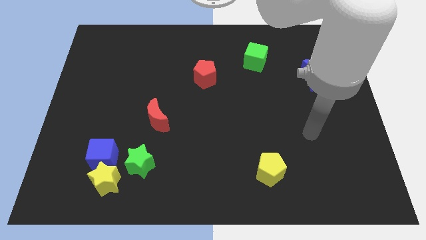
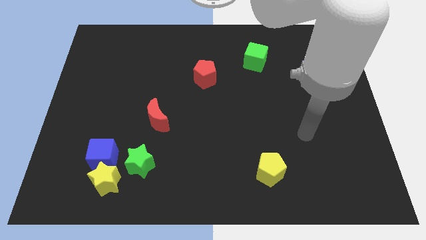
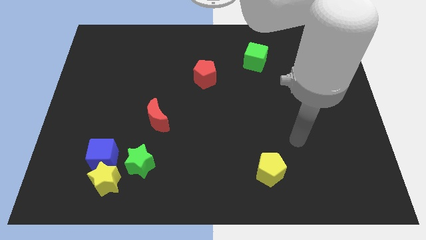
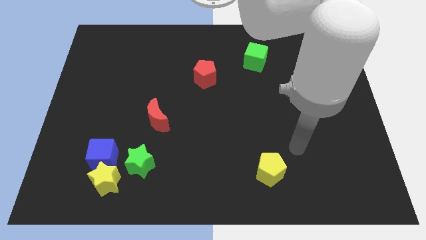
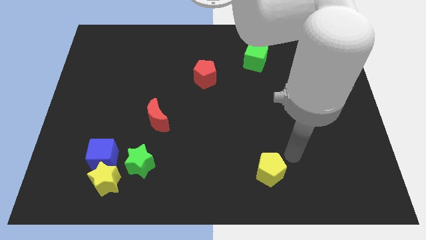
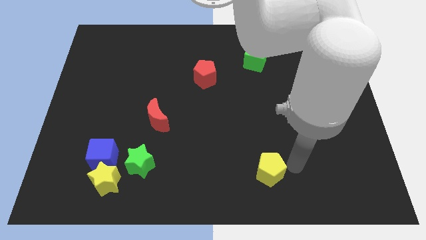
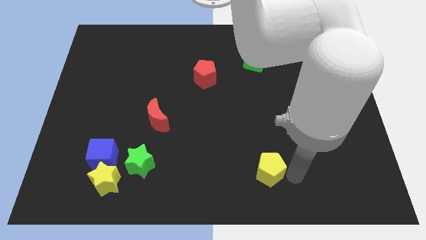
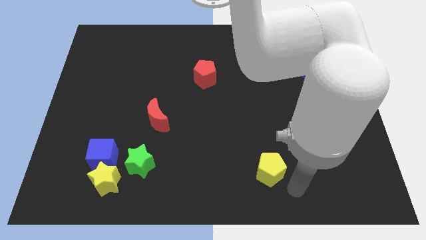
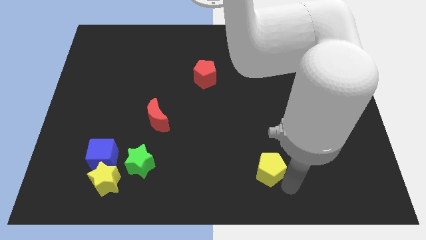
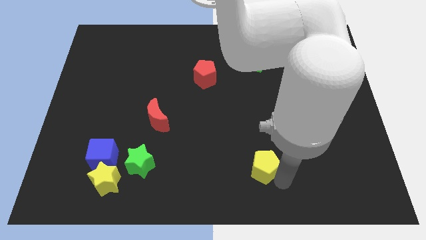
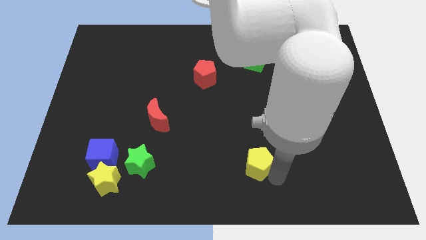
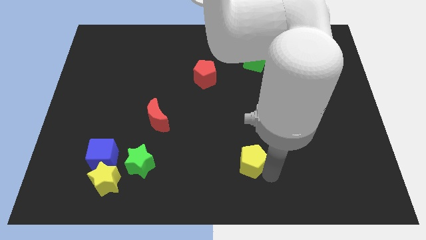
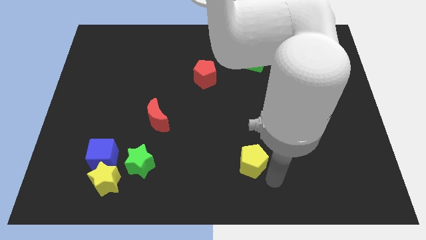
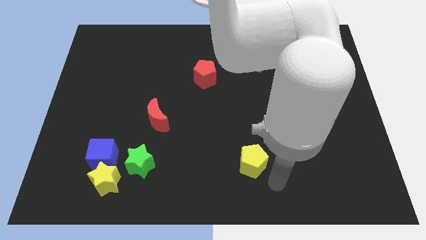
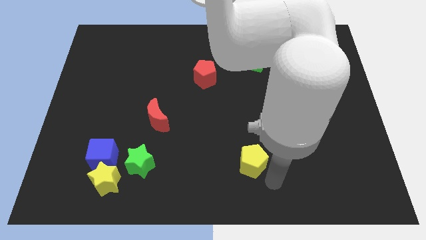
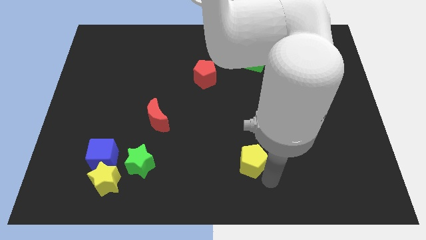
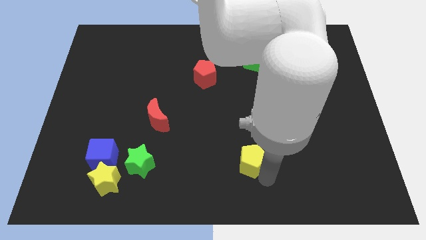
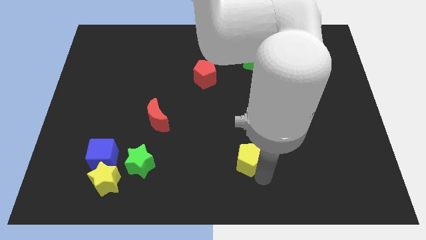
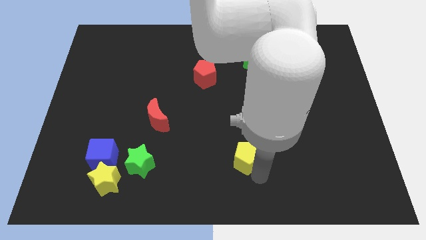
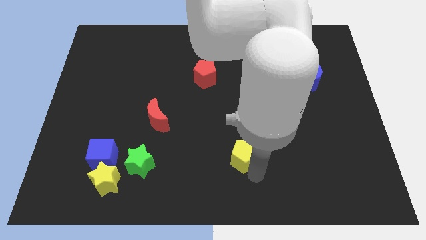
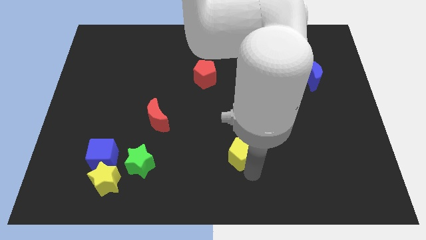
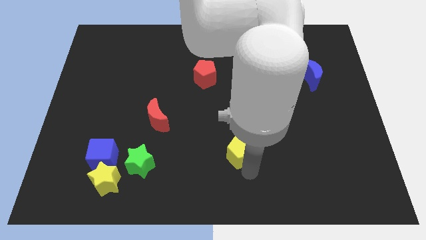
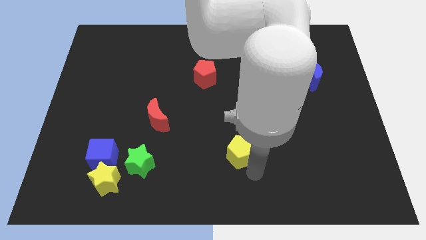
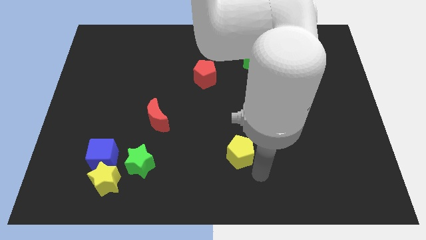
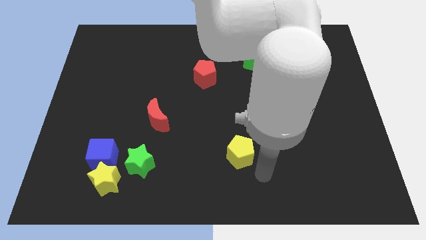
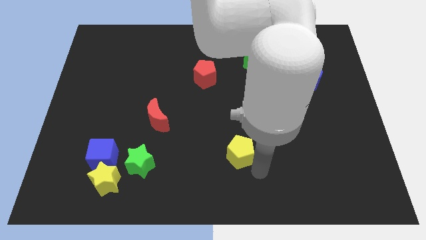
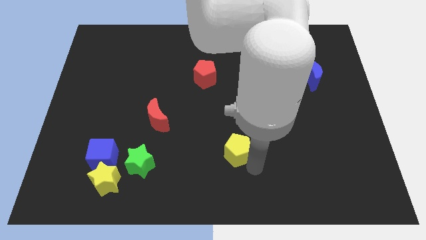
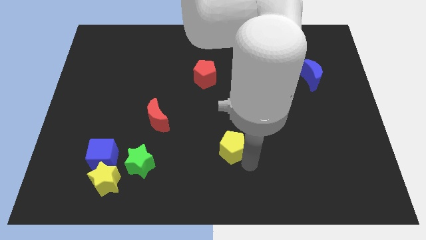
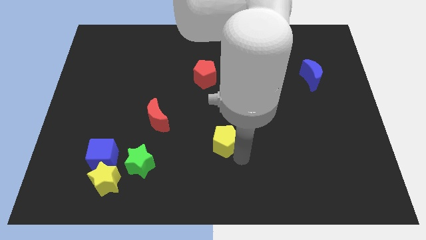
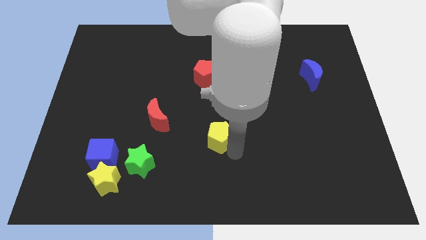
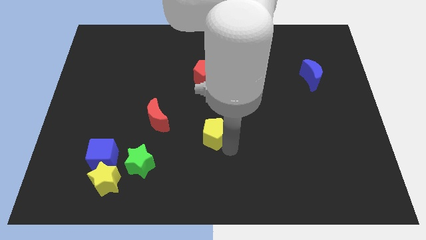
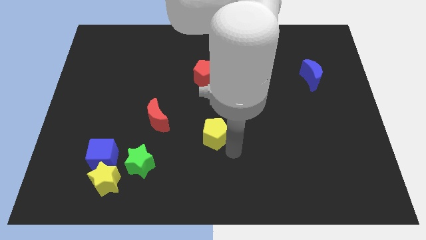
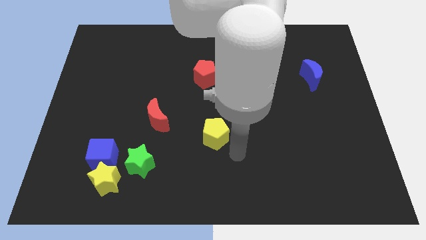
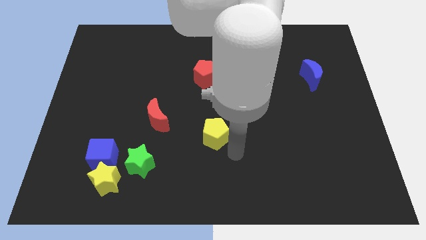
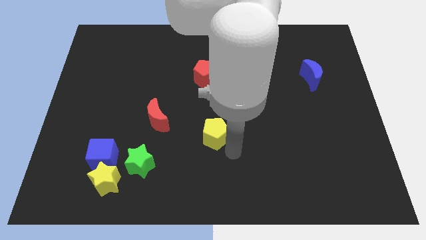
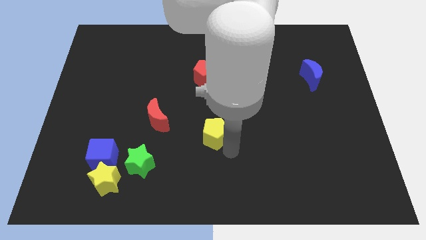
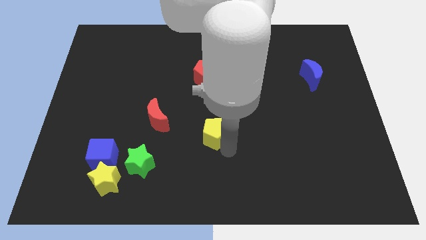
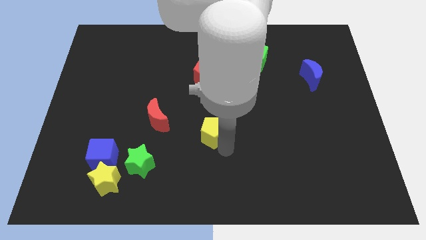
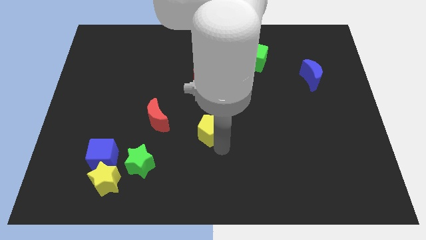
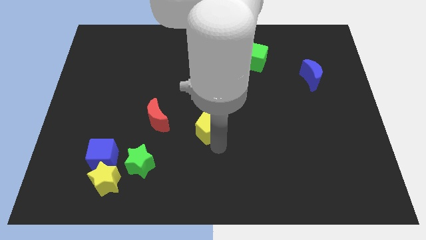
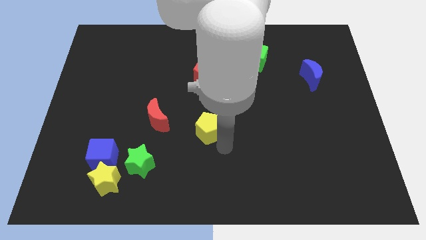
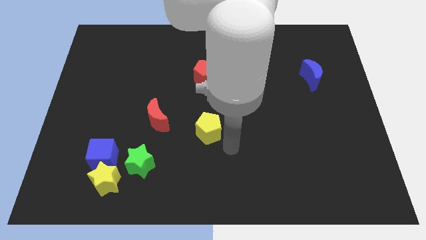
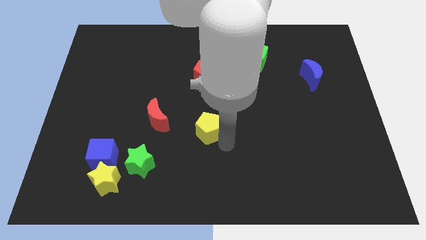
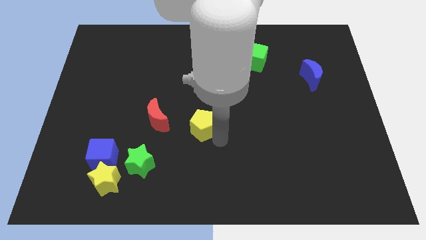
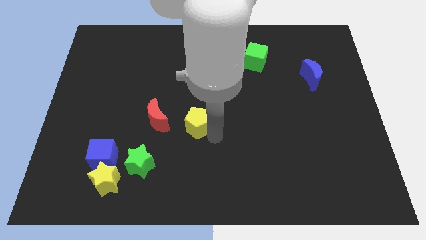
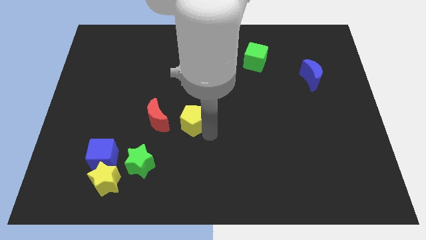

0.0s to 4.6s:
push the yellow pentagon up and then left

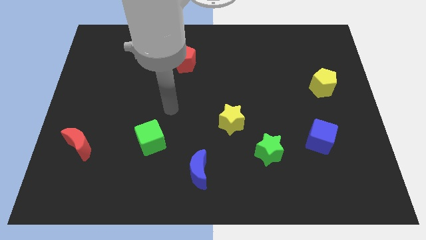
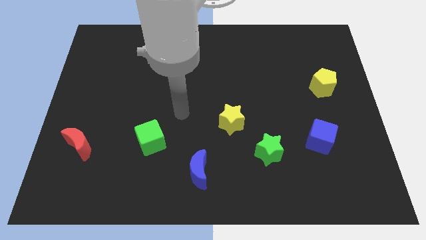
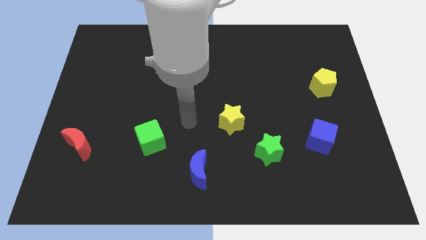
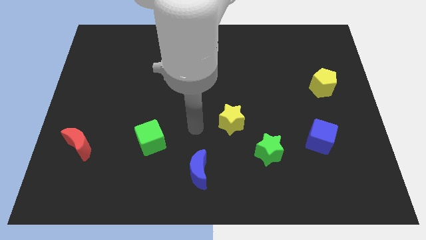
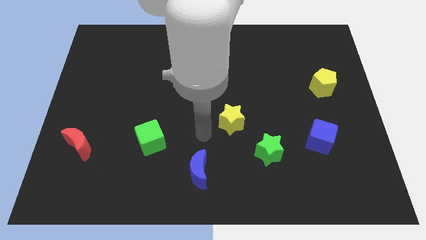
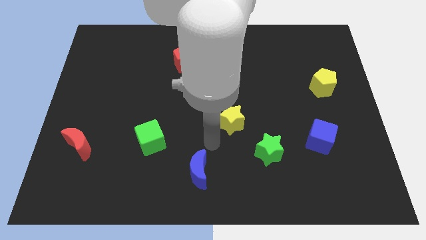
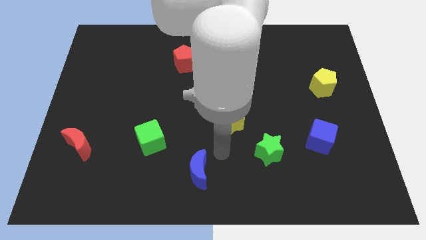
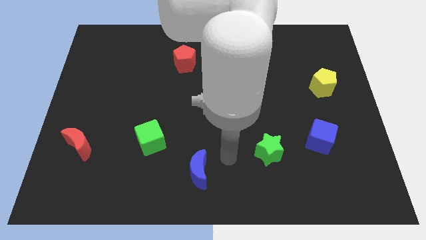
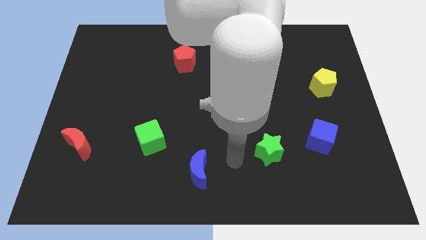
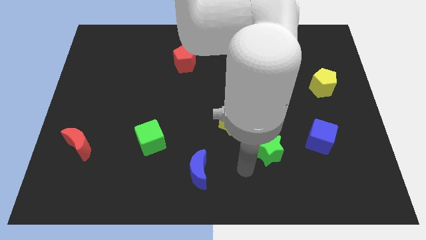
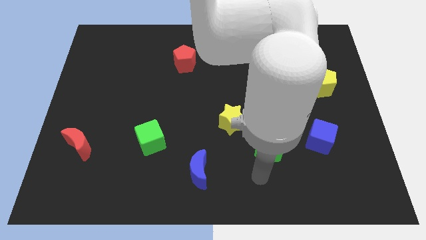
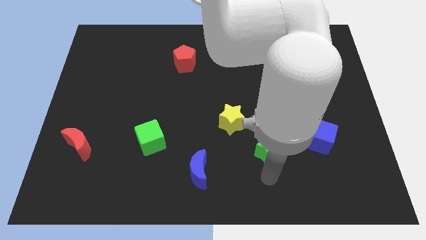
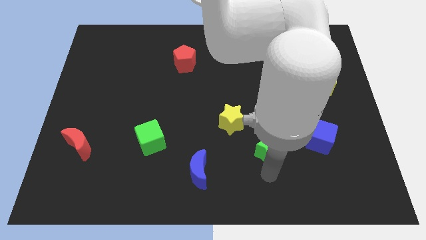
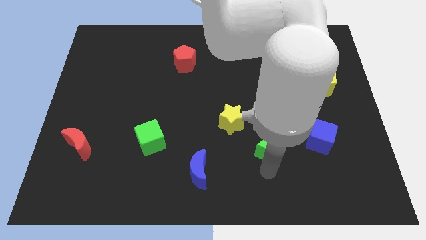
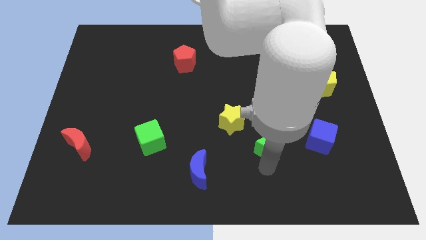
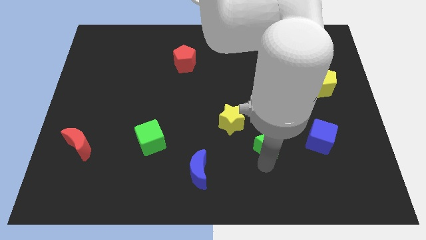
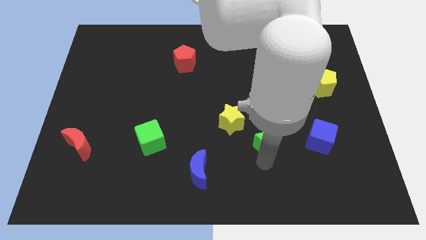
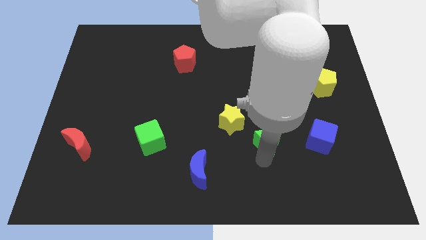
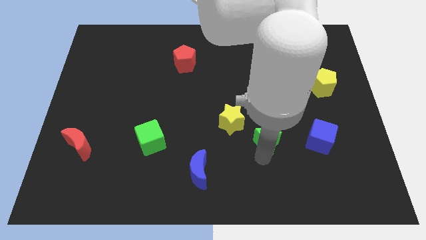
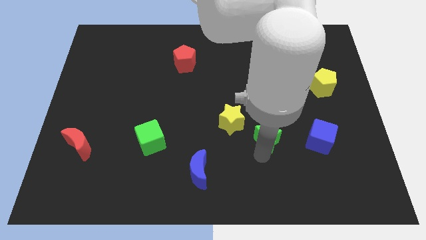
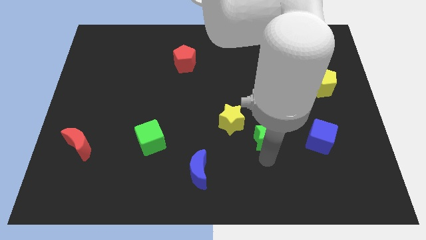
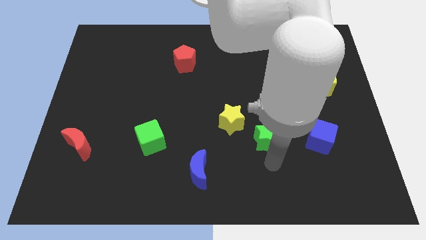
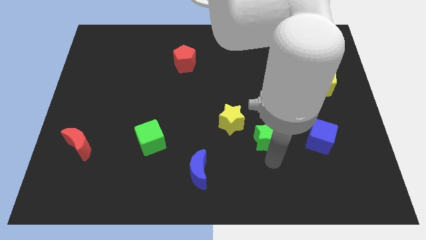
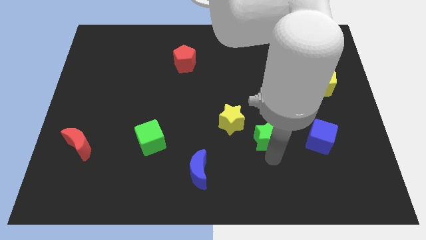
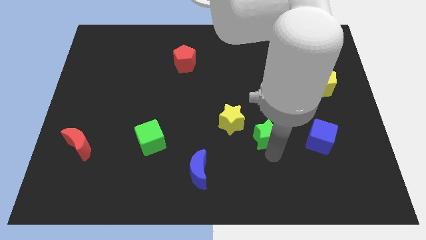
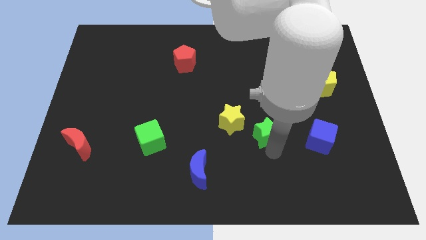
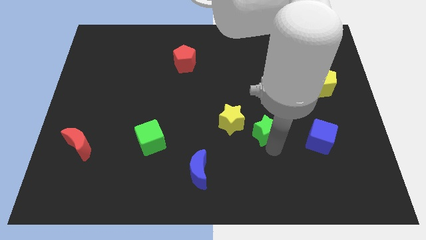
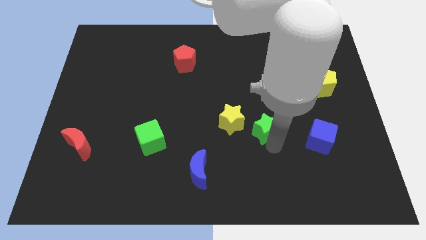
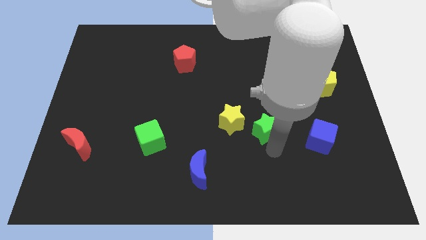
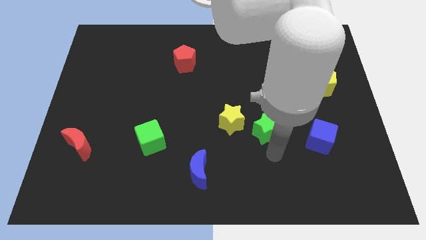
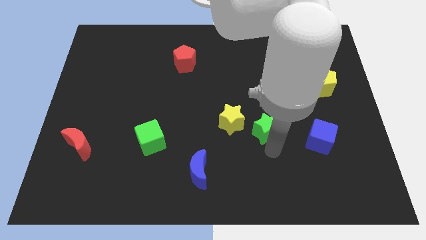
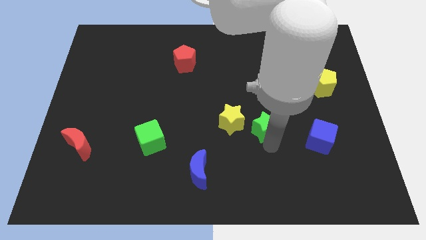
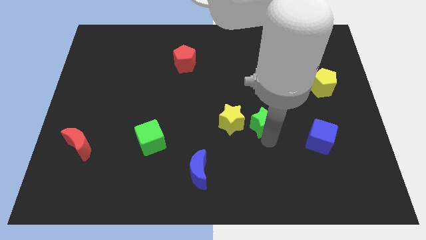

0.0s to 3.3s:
move the green star upwards a bit

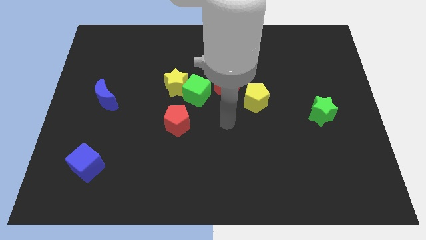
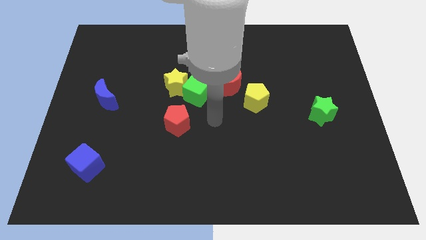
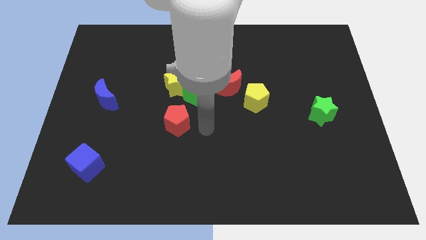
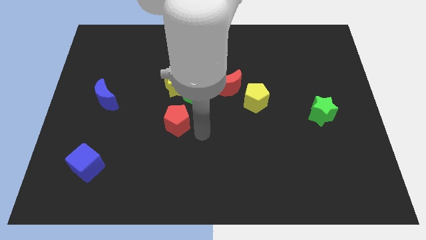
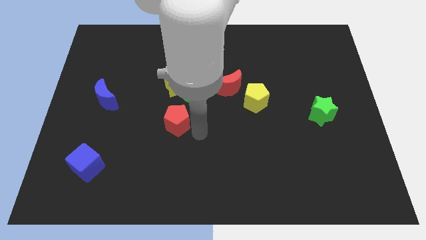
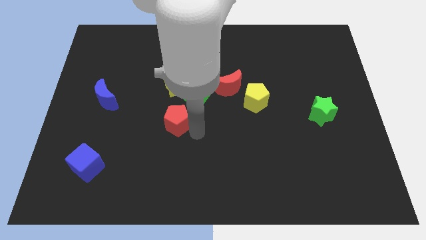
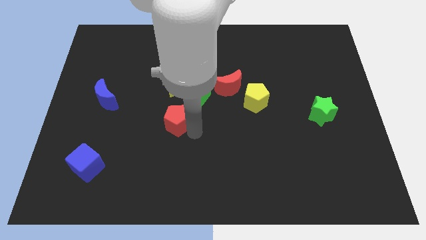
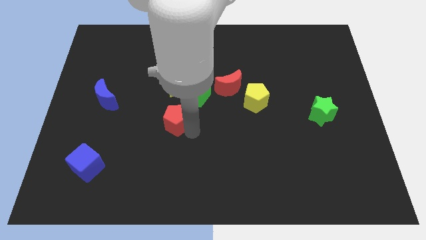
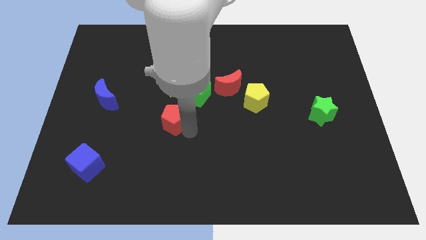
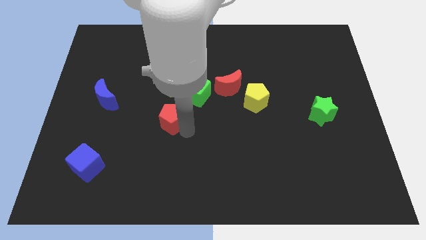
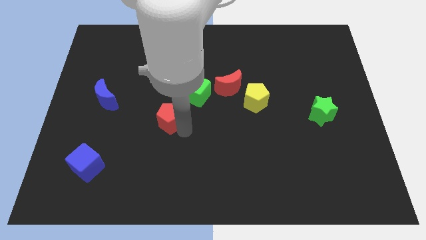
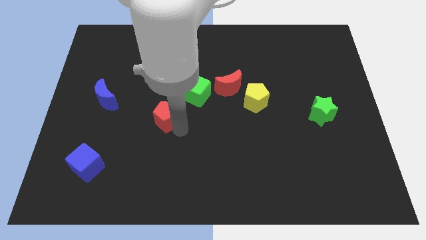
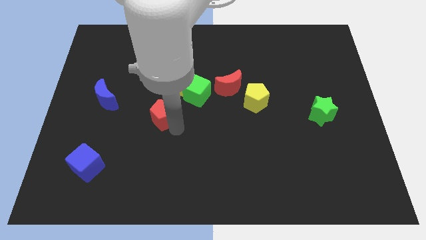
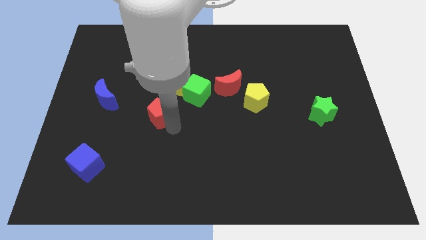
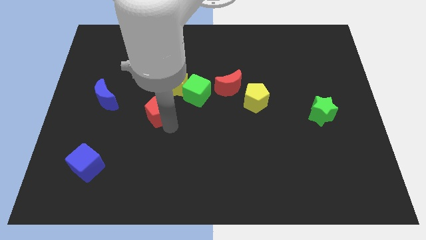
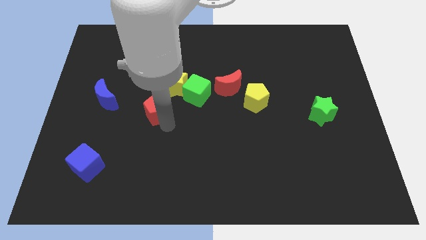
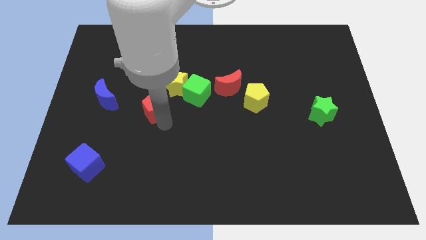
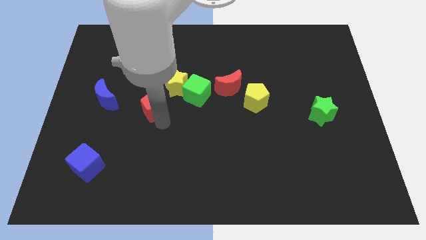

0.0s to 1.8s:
push the red pentagon up and left a little bit
